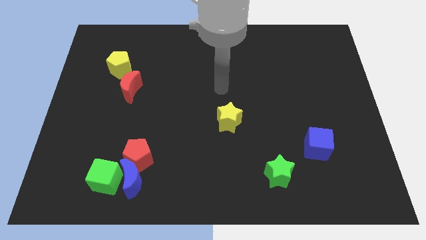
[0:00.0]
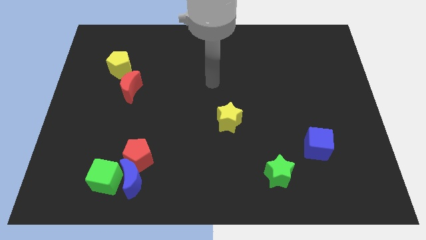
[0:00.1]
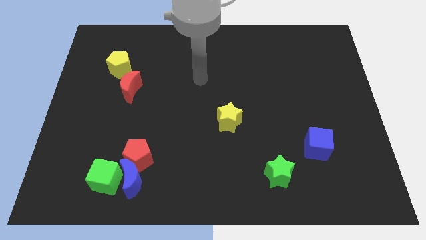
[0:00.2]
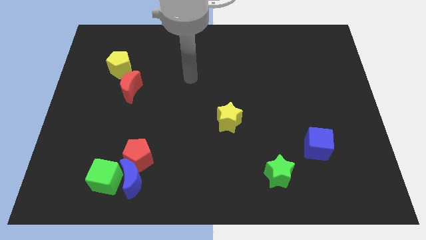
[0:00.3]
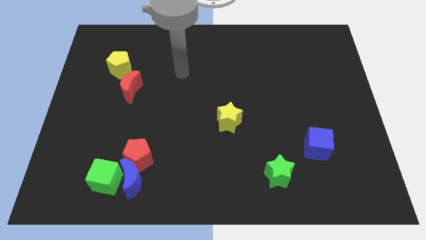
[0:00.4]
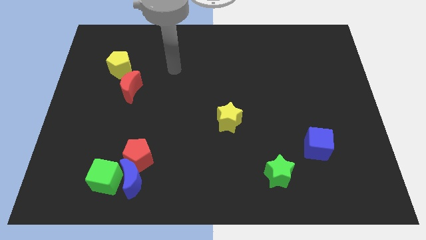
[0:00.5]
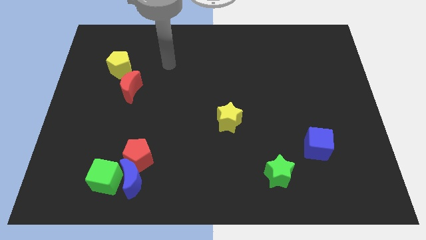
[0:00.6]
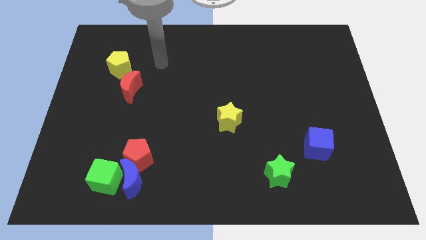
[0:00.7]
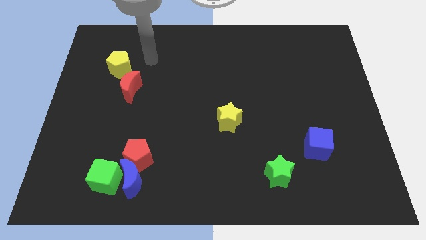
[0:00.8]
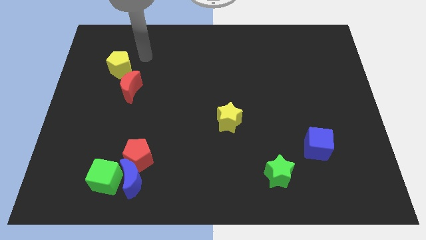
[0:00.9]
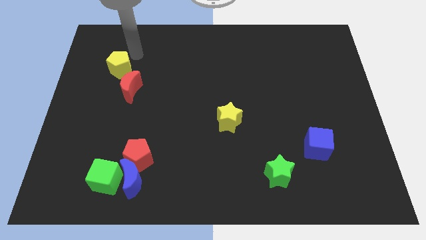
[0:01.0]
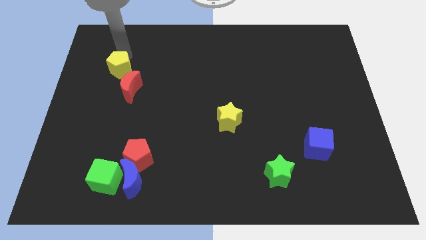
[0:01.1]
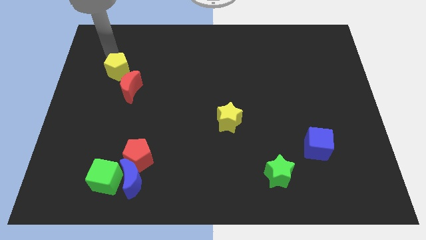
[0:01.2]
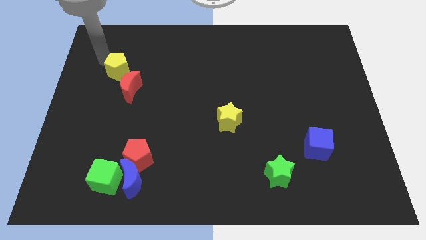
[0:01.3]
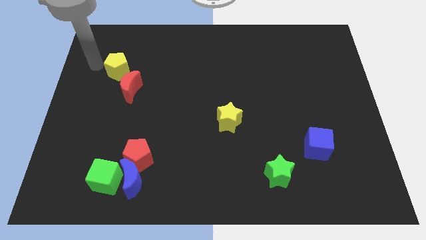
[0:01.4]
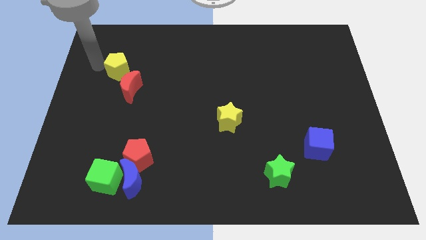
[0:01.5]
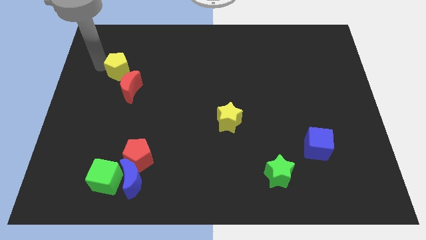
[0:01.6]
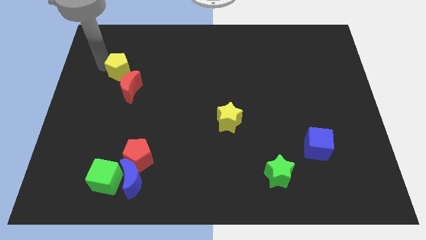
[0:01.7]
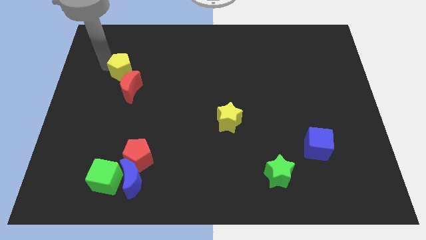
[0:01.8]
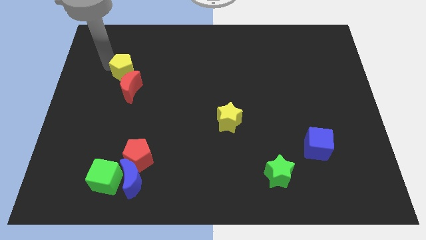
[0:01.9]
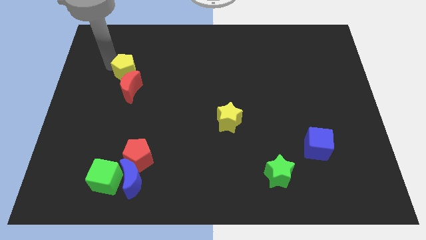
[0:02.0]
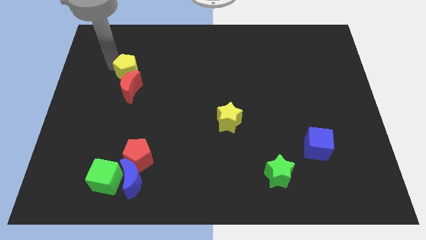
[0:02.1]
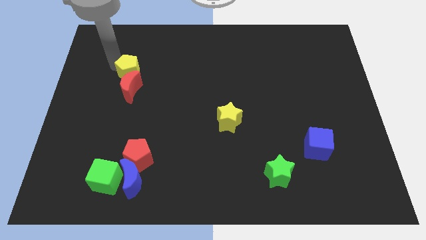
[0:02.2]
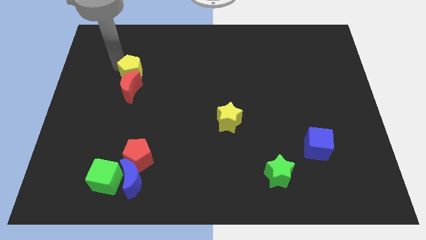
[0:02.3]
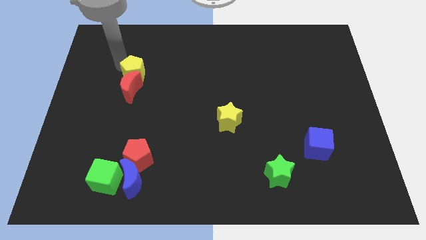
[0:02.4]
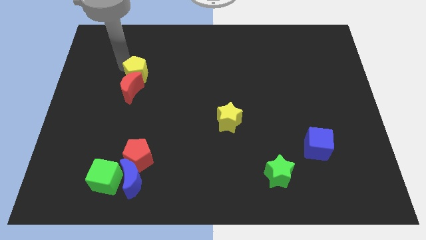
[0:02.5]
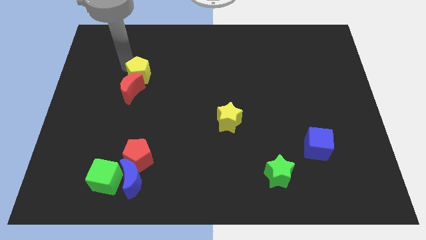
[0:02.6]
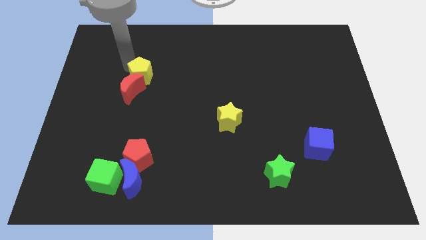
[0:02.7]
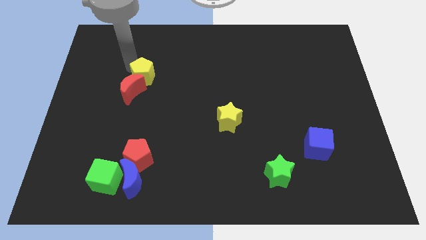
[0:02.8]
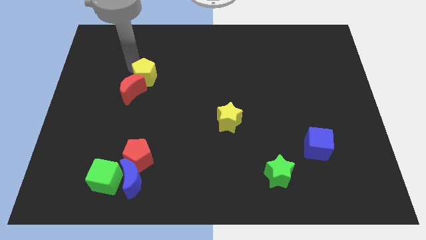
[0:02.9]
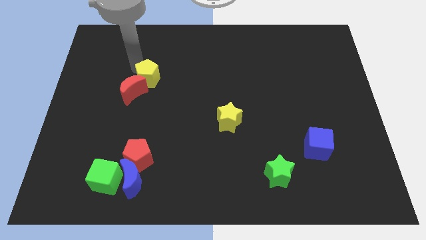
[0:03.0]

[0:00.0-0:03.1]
slightly slide the yellow pentagon diagonally downwards and right

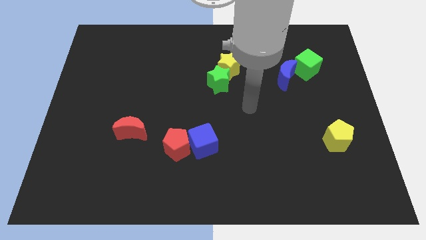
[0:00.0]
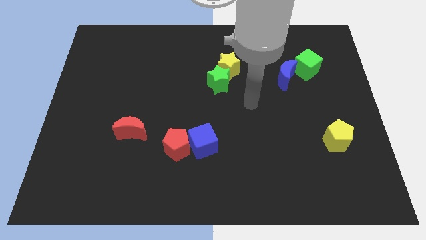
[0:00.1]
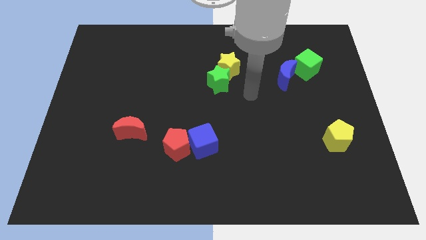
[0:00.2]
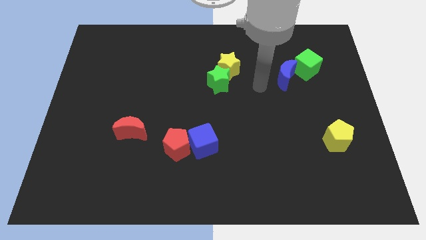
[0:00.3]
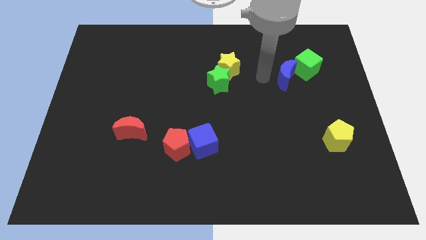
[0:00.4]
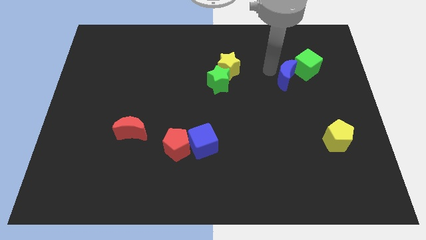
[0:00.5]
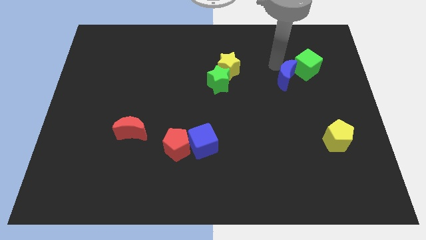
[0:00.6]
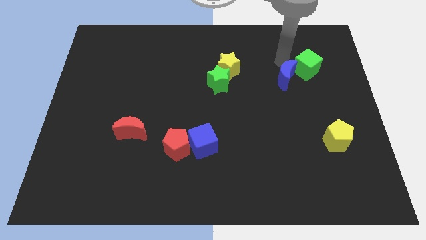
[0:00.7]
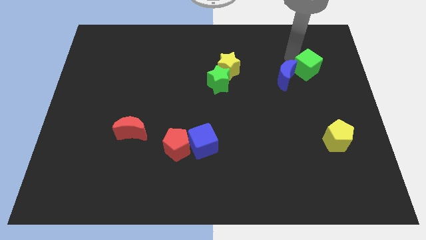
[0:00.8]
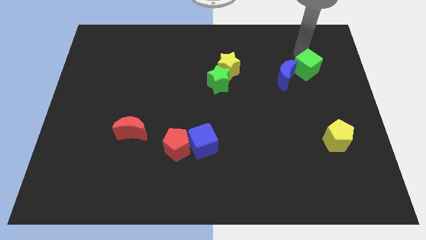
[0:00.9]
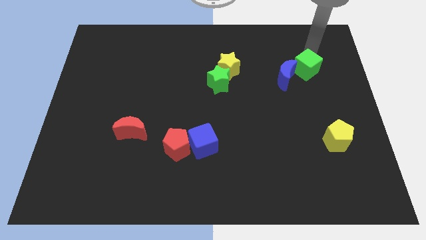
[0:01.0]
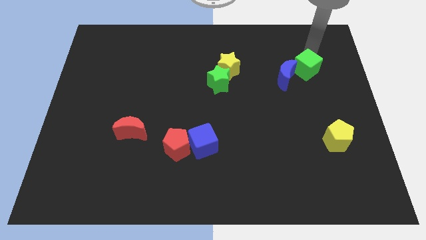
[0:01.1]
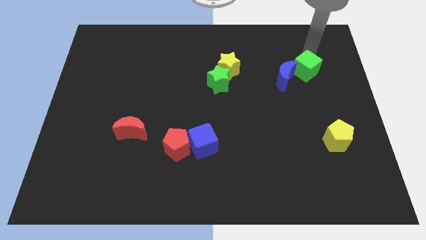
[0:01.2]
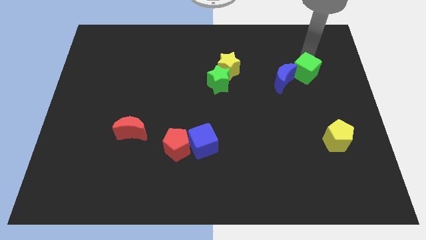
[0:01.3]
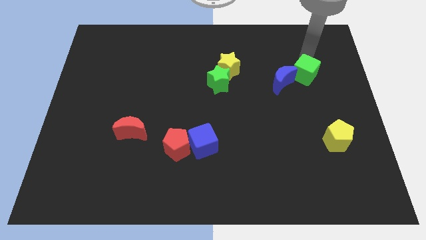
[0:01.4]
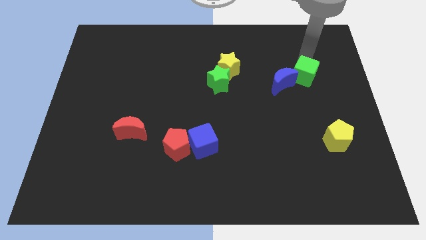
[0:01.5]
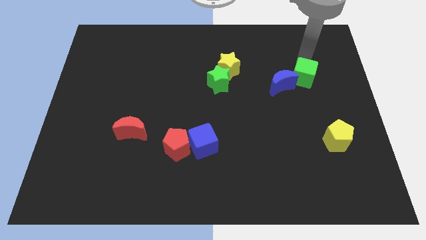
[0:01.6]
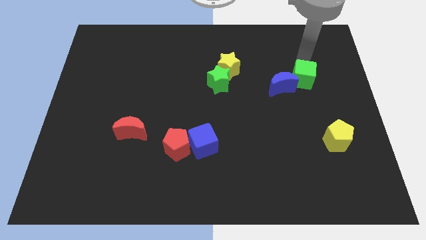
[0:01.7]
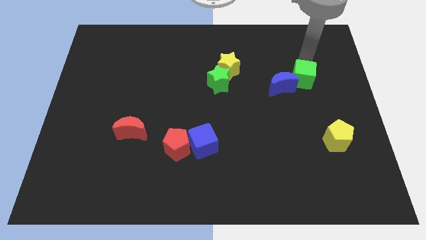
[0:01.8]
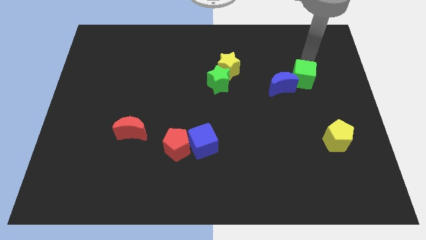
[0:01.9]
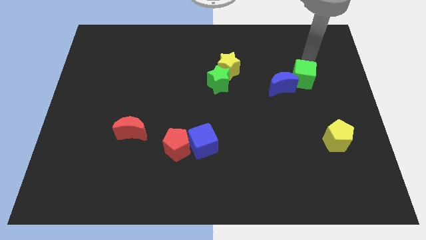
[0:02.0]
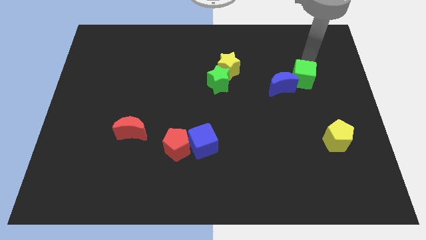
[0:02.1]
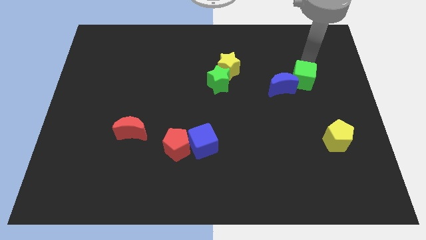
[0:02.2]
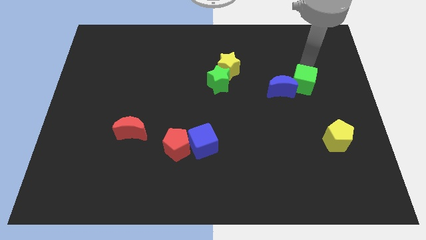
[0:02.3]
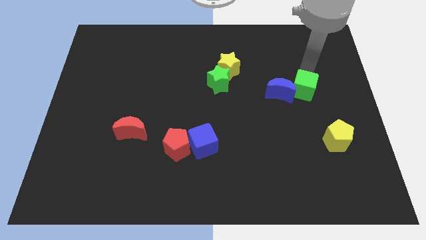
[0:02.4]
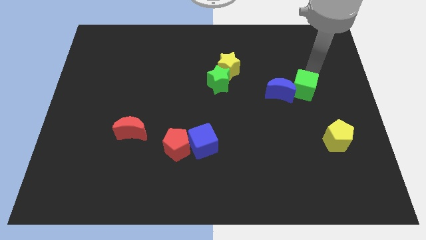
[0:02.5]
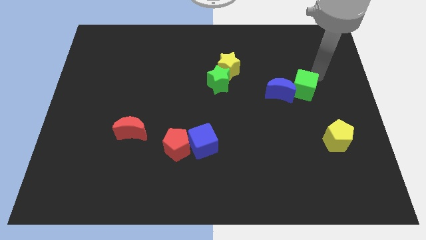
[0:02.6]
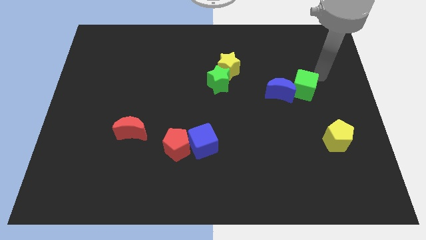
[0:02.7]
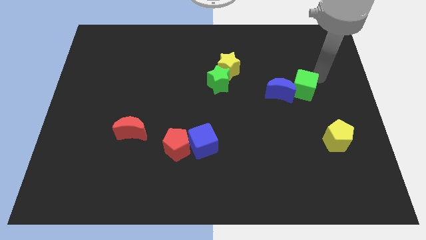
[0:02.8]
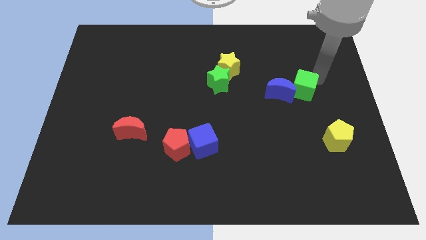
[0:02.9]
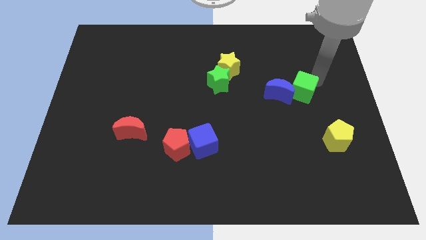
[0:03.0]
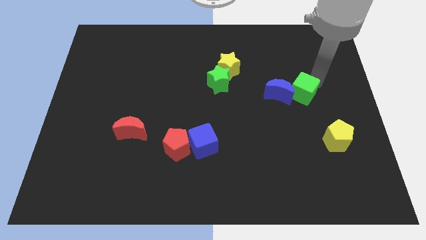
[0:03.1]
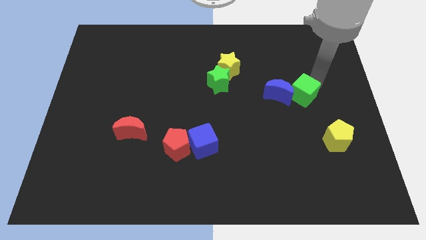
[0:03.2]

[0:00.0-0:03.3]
slide the green cube down and to the left diagonally a bit

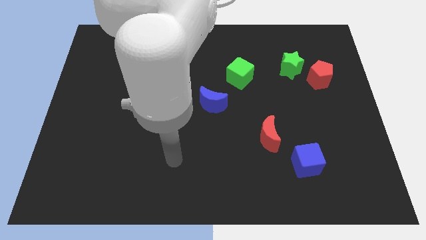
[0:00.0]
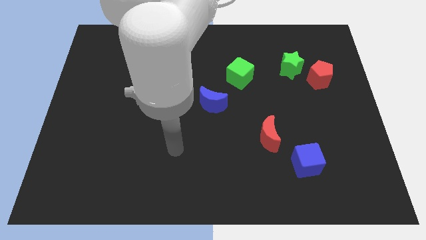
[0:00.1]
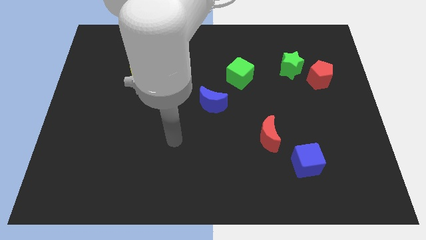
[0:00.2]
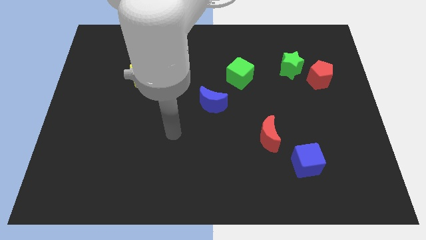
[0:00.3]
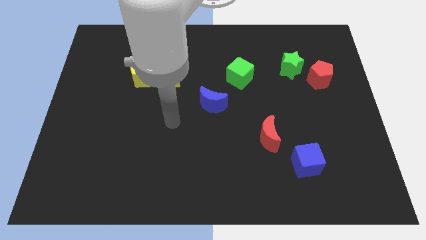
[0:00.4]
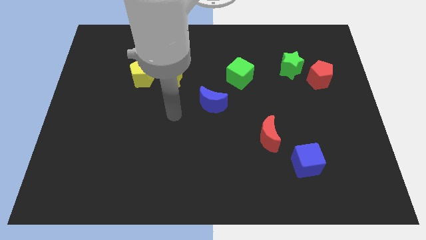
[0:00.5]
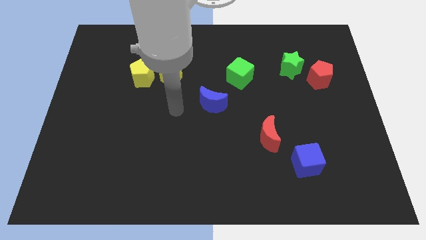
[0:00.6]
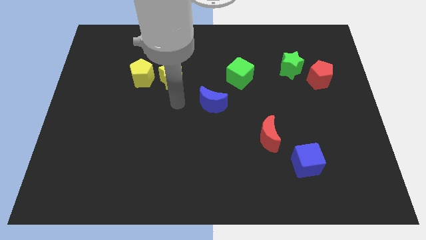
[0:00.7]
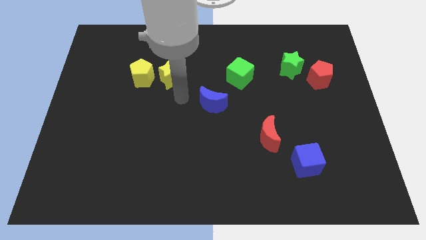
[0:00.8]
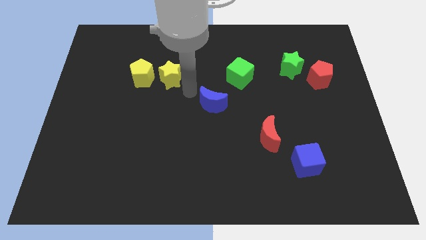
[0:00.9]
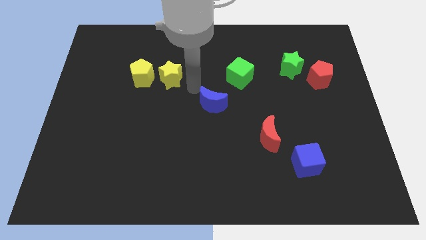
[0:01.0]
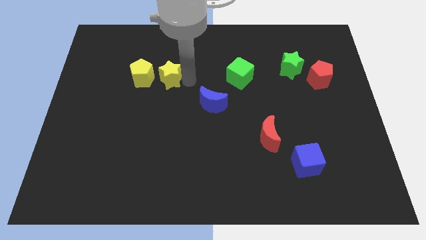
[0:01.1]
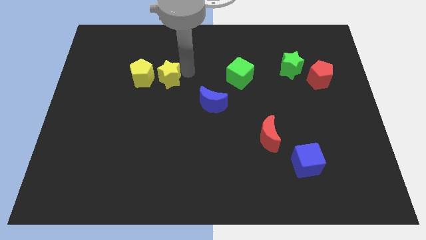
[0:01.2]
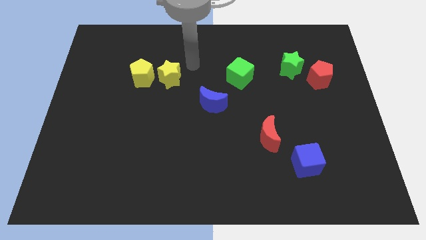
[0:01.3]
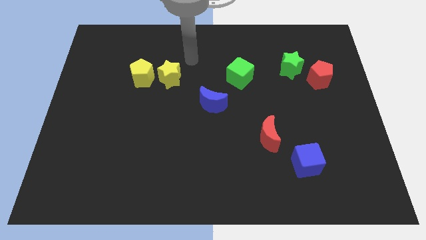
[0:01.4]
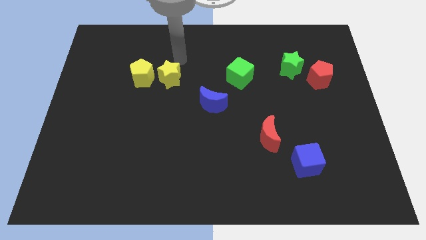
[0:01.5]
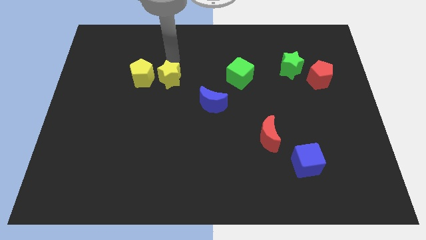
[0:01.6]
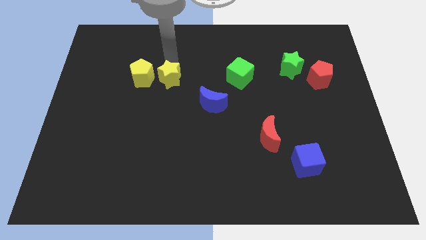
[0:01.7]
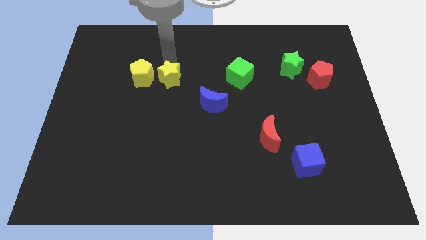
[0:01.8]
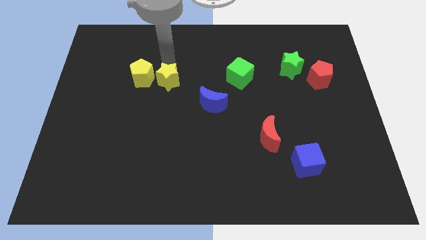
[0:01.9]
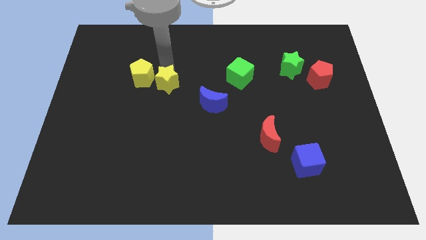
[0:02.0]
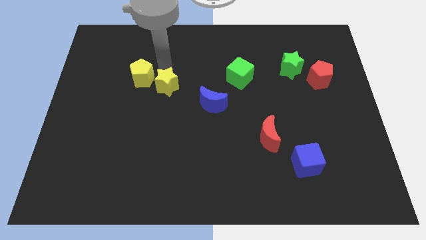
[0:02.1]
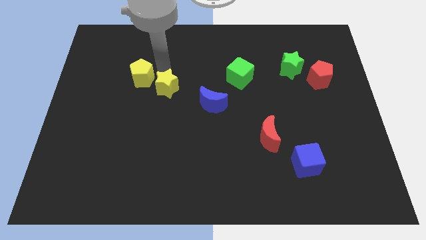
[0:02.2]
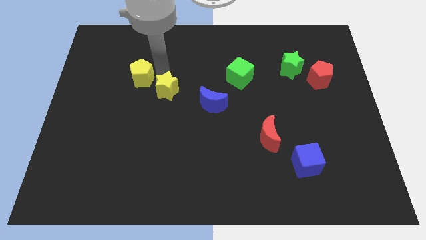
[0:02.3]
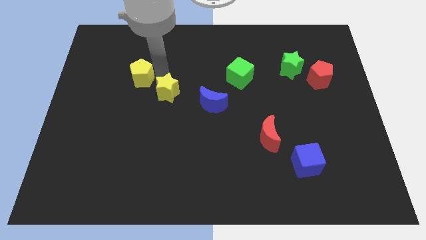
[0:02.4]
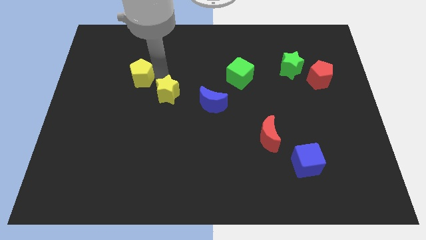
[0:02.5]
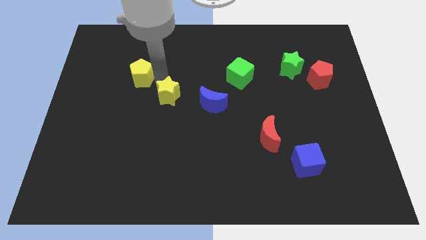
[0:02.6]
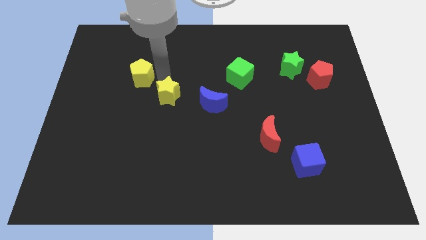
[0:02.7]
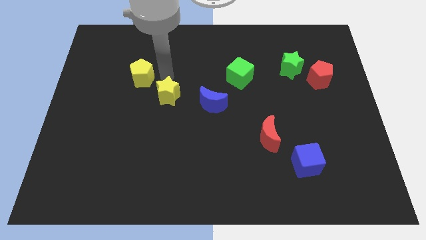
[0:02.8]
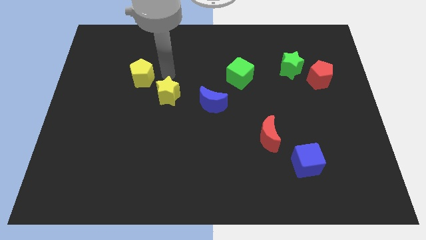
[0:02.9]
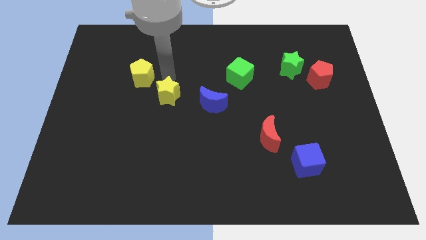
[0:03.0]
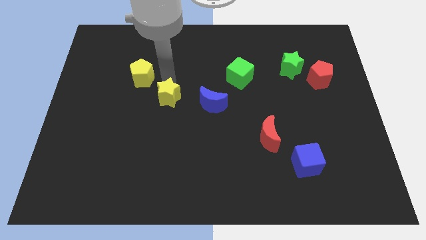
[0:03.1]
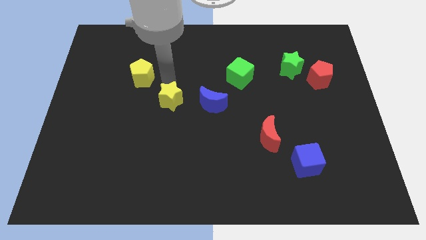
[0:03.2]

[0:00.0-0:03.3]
slide the yellow star somewhat downwards
